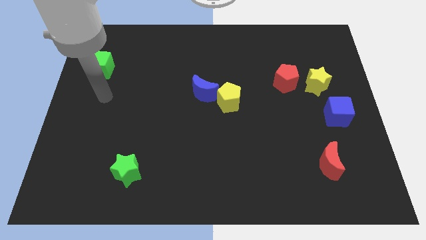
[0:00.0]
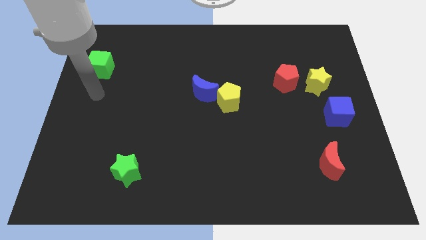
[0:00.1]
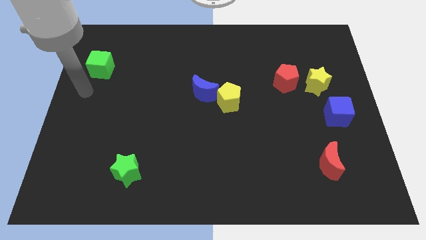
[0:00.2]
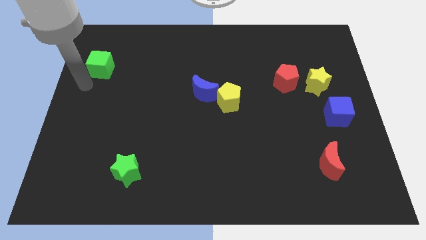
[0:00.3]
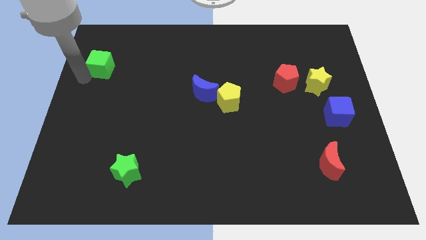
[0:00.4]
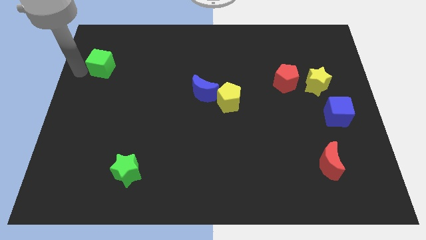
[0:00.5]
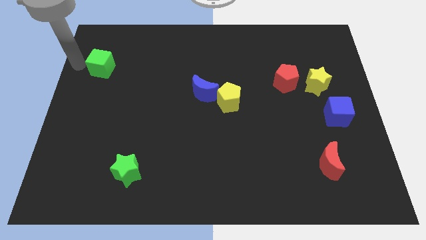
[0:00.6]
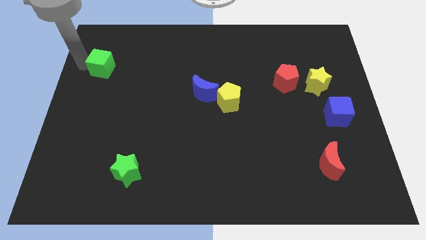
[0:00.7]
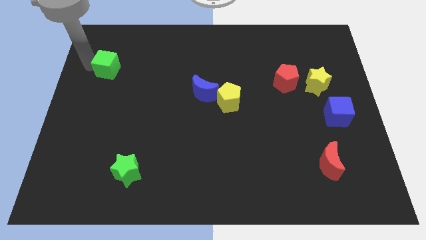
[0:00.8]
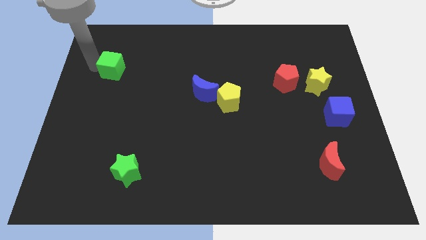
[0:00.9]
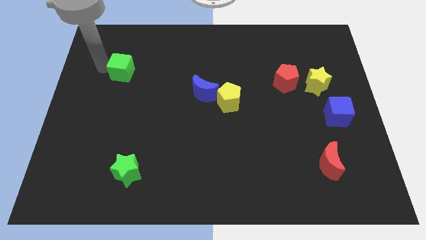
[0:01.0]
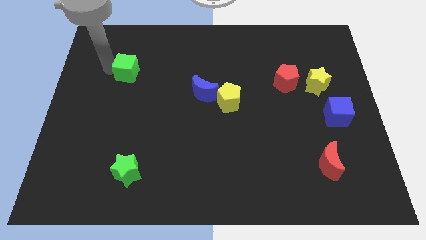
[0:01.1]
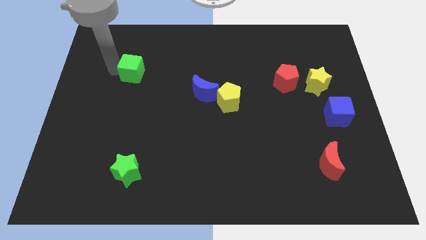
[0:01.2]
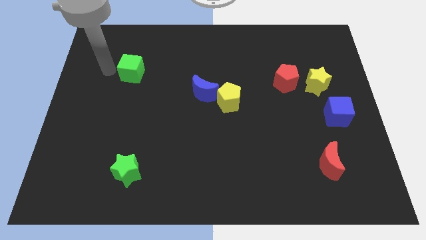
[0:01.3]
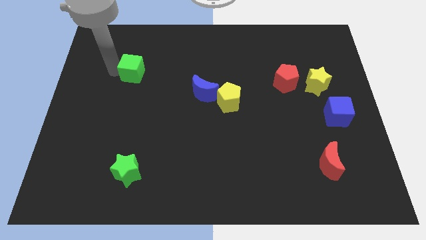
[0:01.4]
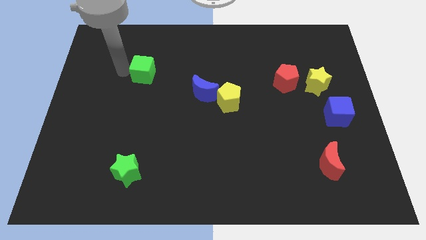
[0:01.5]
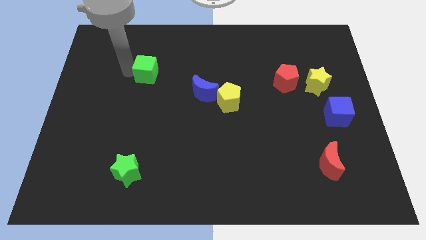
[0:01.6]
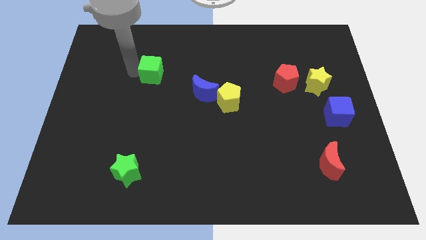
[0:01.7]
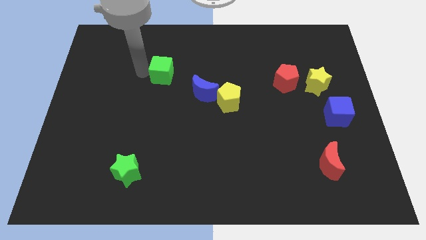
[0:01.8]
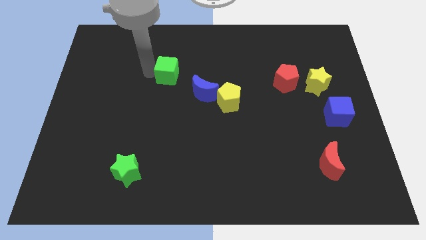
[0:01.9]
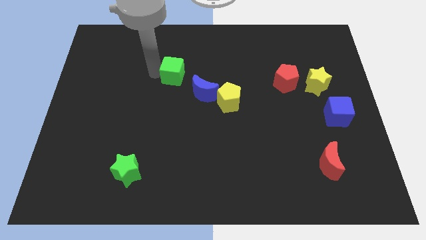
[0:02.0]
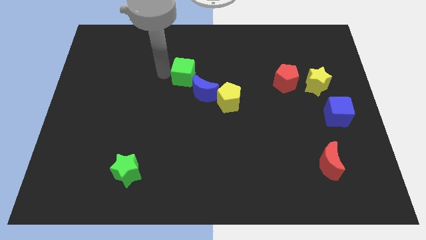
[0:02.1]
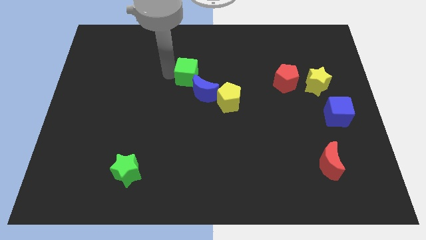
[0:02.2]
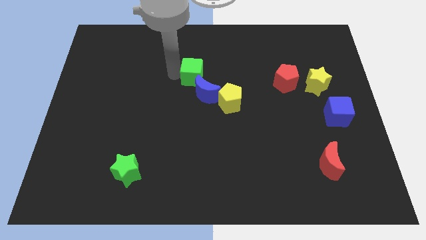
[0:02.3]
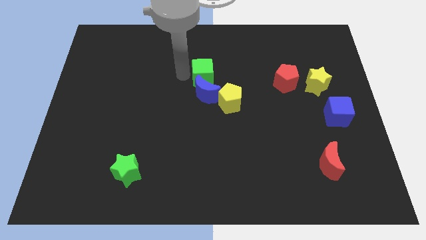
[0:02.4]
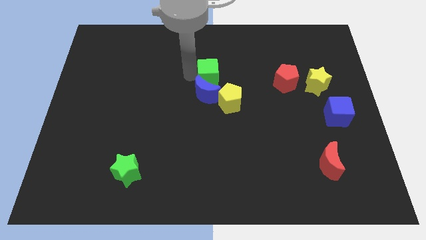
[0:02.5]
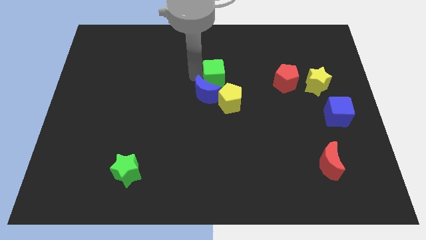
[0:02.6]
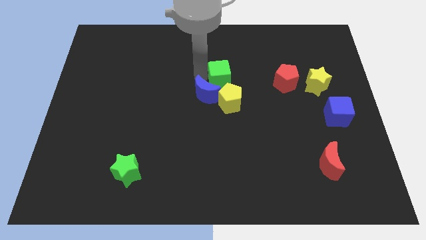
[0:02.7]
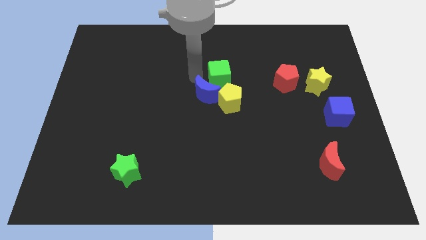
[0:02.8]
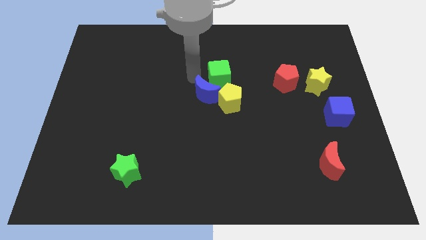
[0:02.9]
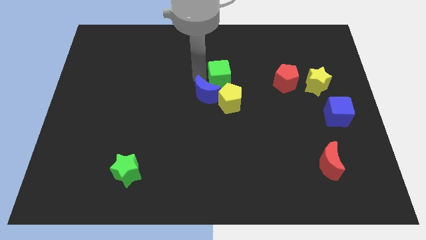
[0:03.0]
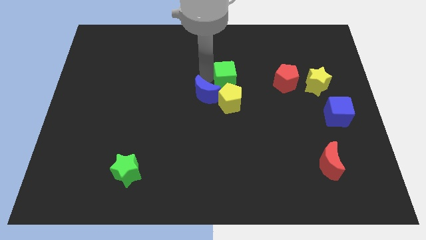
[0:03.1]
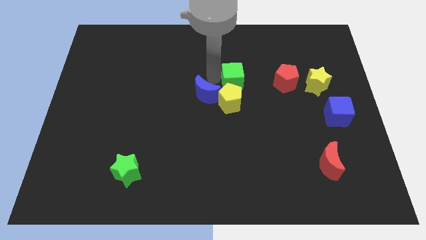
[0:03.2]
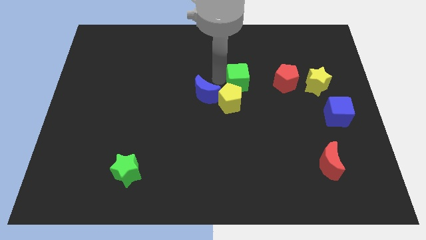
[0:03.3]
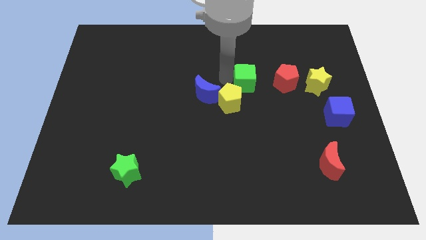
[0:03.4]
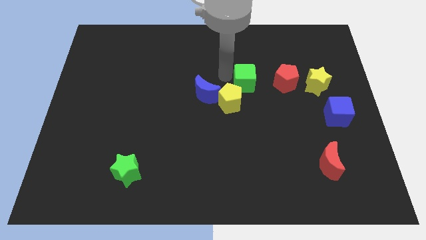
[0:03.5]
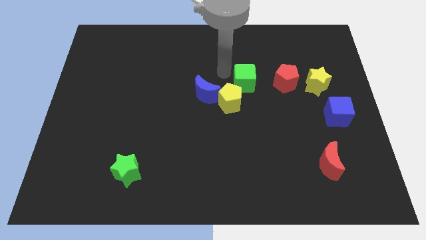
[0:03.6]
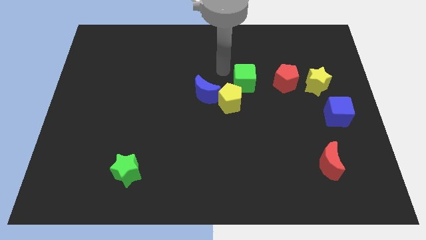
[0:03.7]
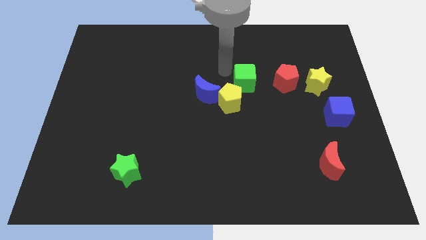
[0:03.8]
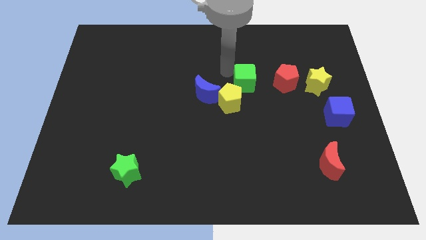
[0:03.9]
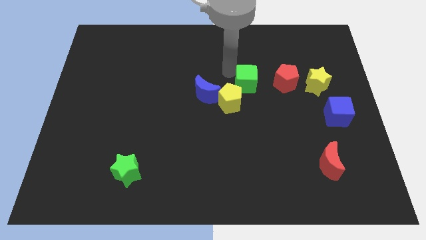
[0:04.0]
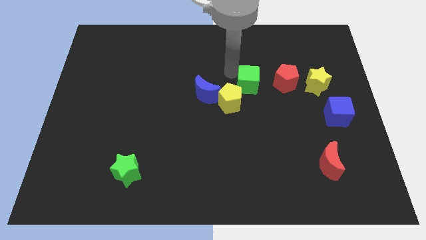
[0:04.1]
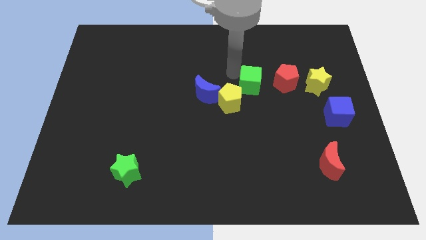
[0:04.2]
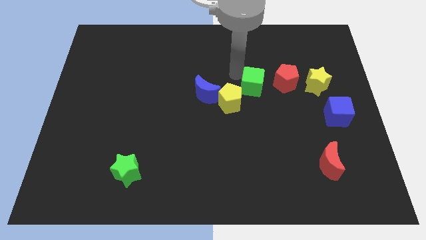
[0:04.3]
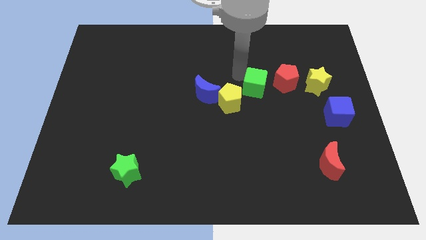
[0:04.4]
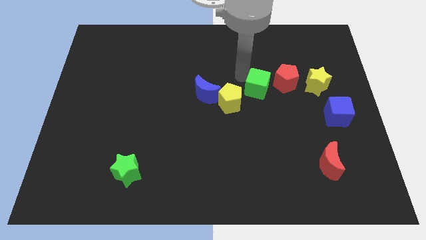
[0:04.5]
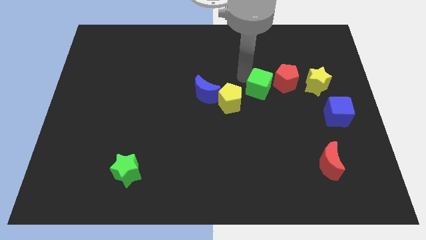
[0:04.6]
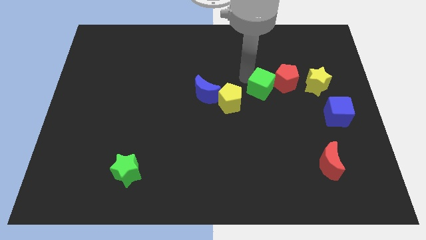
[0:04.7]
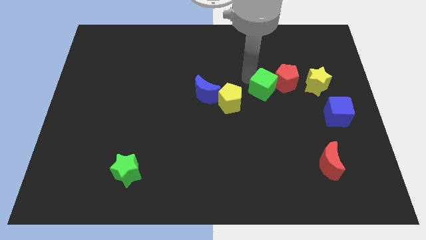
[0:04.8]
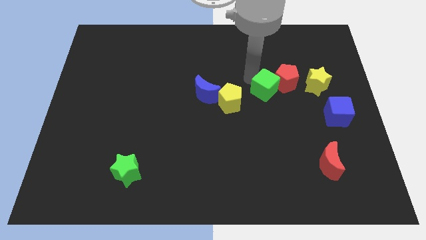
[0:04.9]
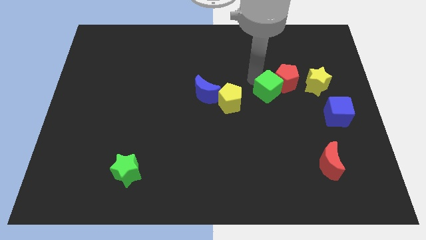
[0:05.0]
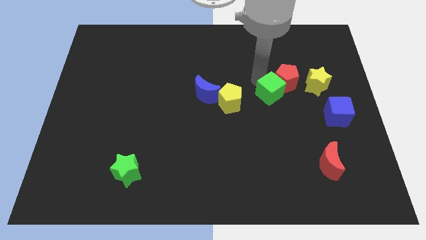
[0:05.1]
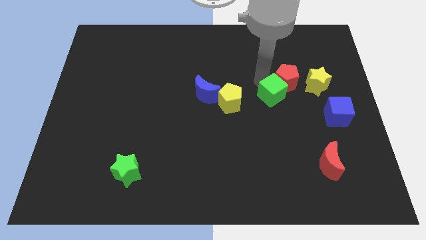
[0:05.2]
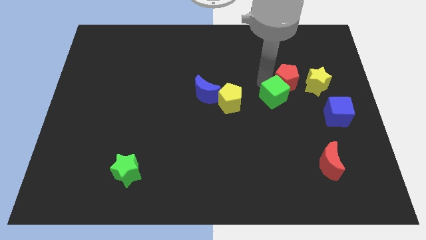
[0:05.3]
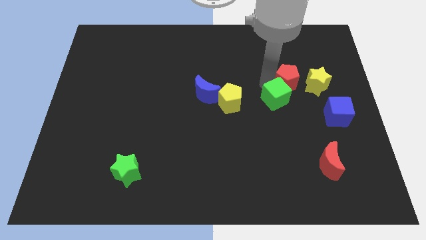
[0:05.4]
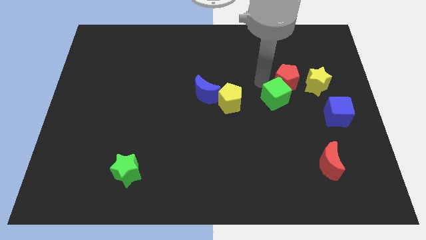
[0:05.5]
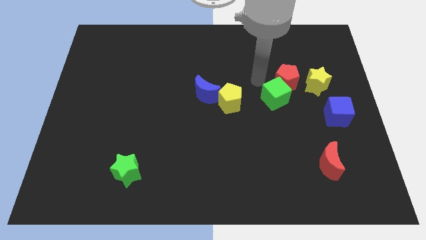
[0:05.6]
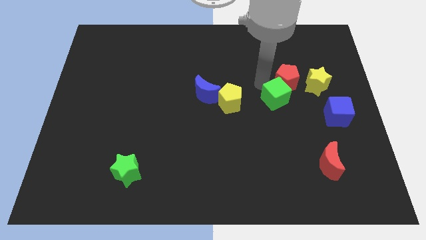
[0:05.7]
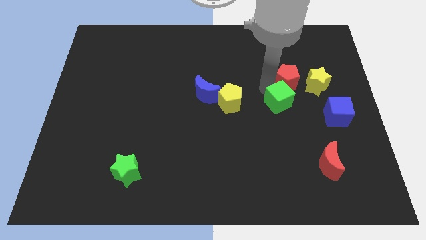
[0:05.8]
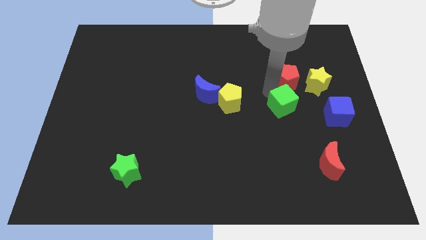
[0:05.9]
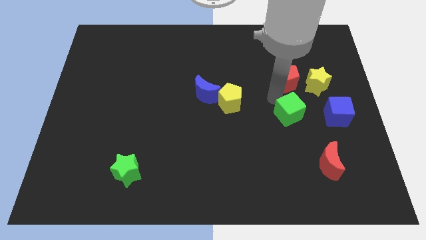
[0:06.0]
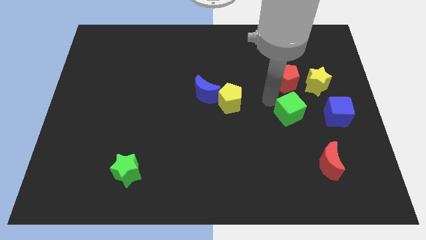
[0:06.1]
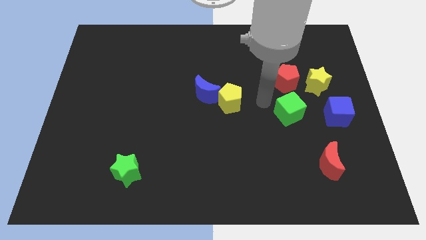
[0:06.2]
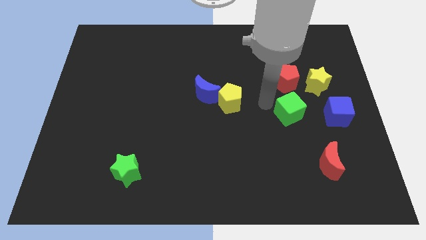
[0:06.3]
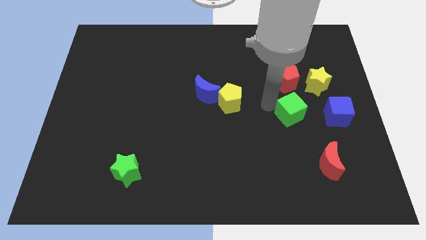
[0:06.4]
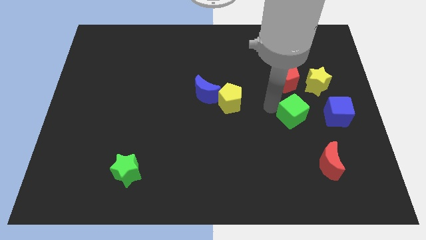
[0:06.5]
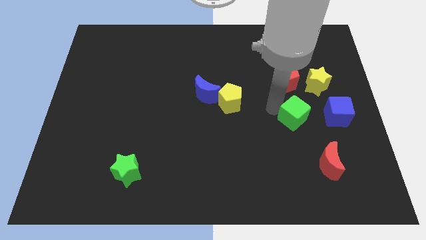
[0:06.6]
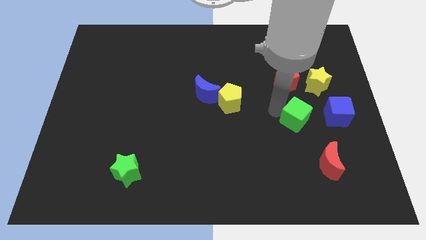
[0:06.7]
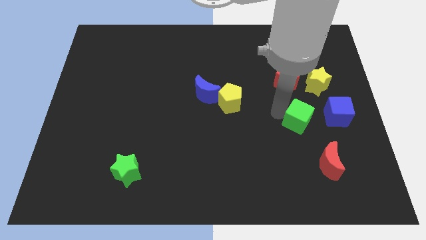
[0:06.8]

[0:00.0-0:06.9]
move the green cube to the top side of the red moon

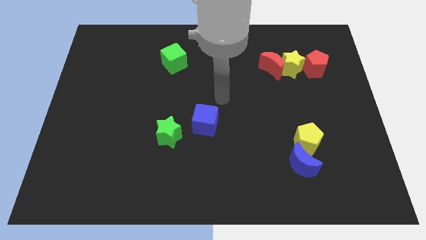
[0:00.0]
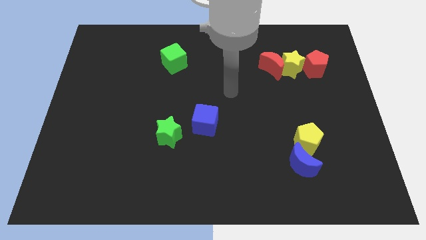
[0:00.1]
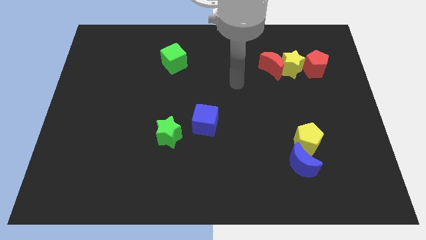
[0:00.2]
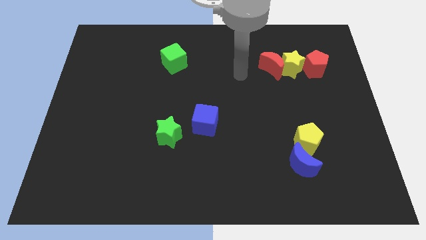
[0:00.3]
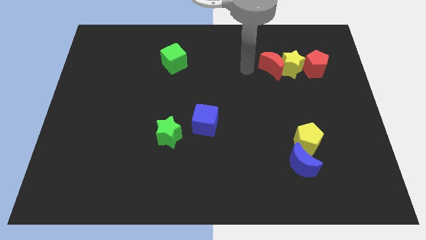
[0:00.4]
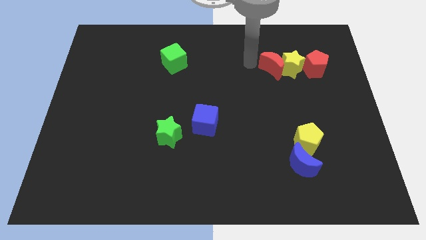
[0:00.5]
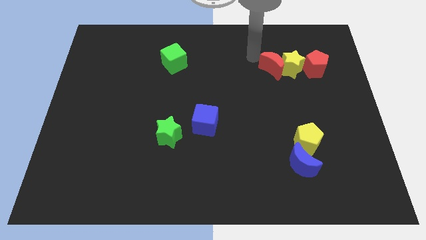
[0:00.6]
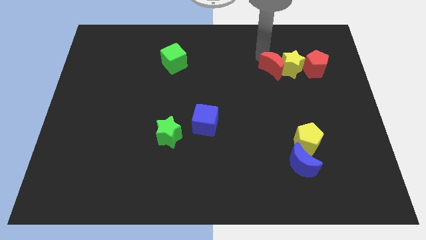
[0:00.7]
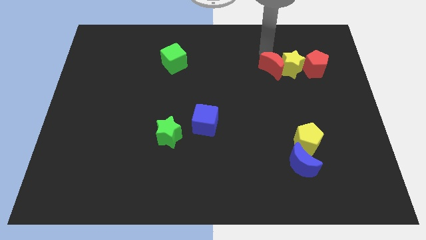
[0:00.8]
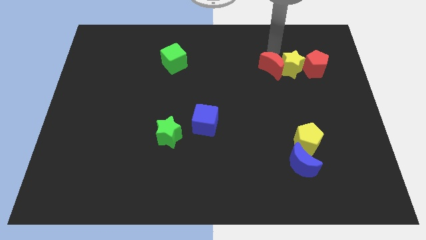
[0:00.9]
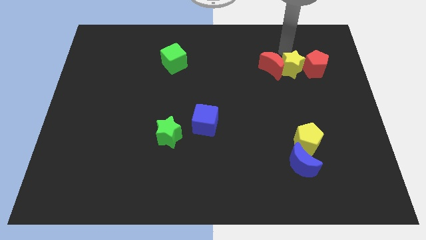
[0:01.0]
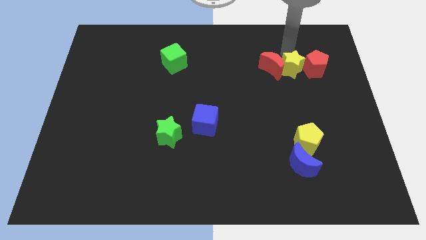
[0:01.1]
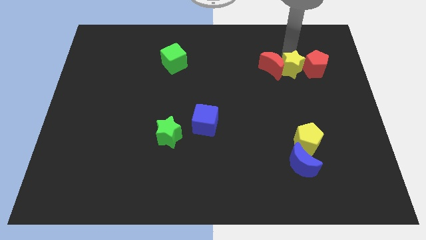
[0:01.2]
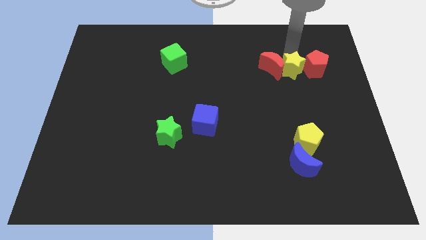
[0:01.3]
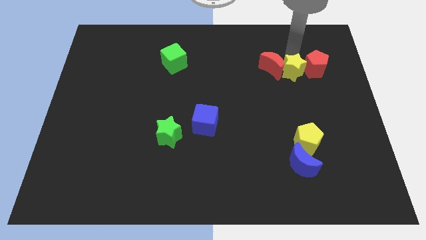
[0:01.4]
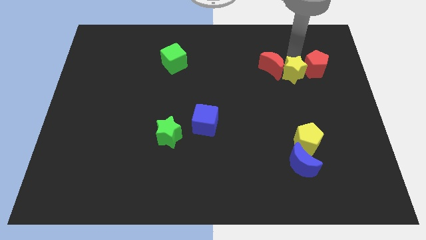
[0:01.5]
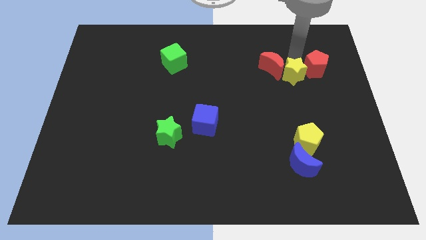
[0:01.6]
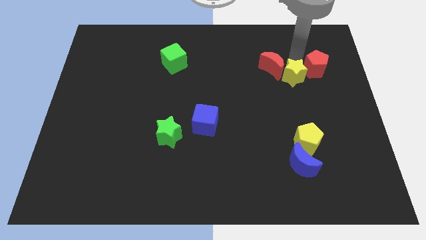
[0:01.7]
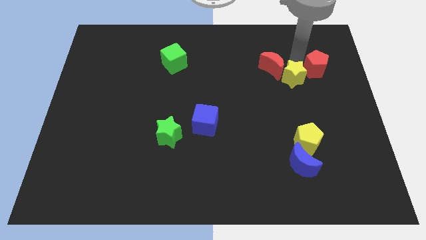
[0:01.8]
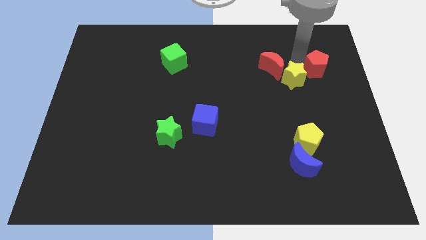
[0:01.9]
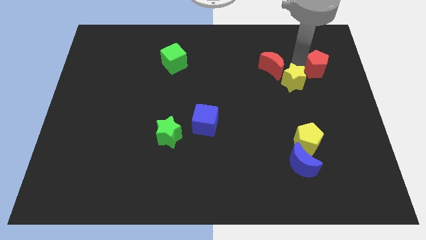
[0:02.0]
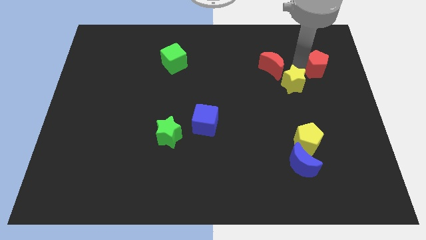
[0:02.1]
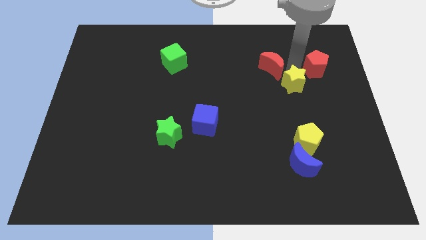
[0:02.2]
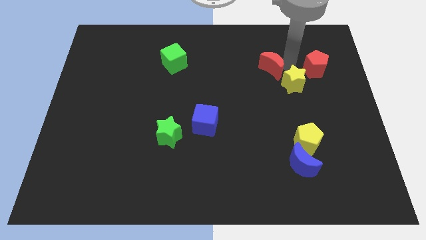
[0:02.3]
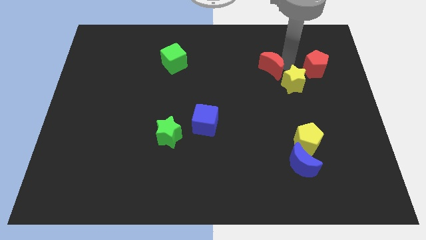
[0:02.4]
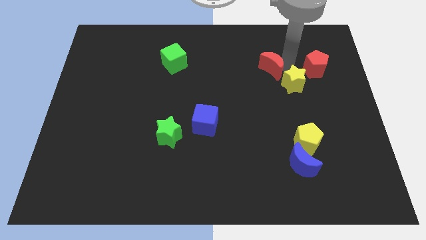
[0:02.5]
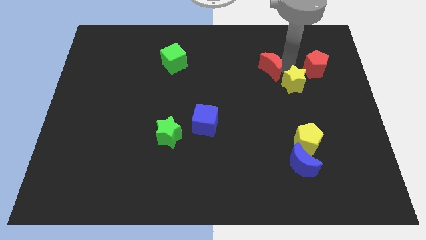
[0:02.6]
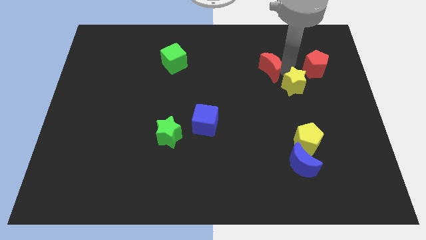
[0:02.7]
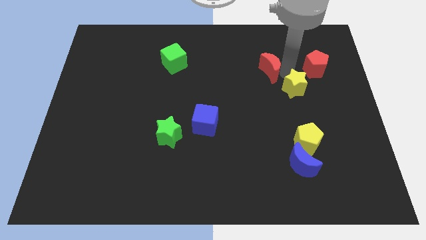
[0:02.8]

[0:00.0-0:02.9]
push the yellow star to the top of the yellow pentagon
